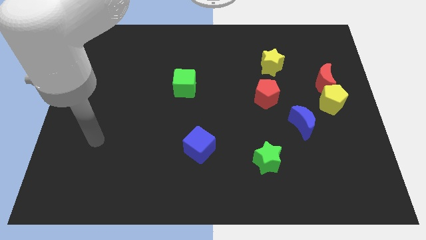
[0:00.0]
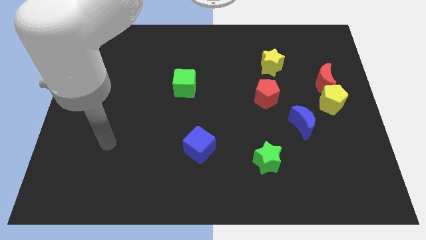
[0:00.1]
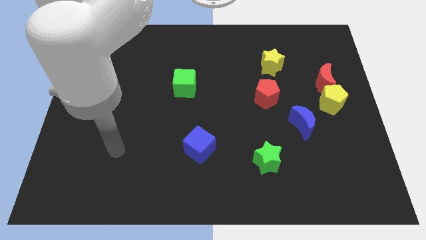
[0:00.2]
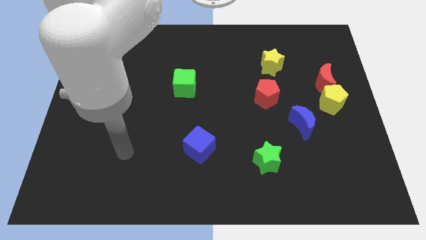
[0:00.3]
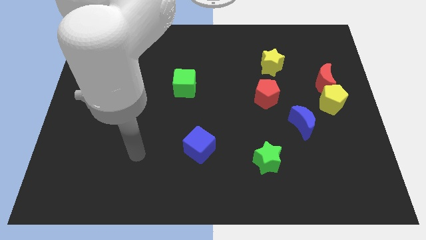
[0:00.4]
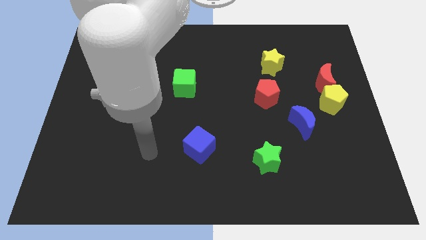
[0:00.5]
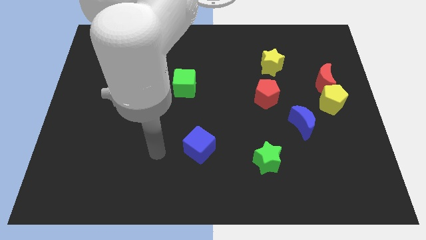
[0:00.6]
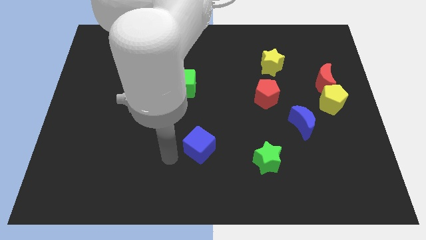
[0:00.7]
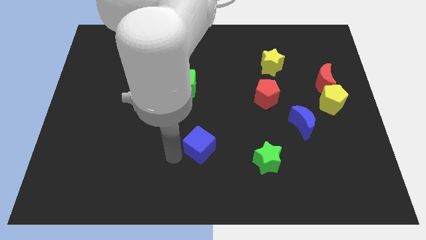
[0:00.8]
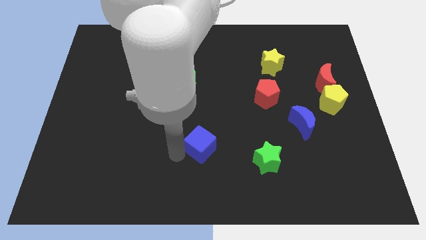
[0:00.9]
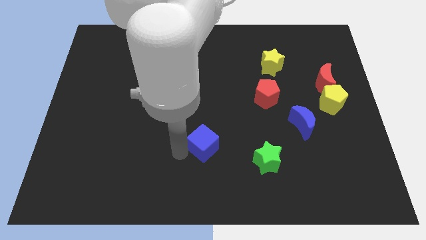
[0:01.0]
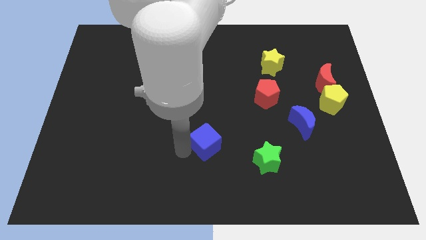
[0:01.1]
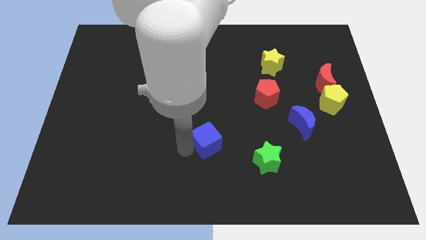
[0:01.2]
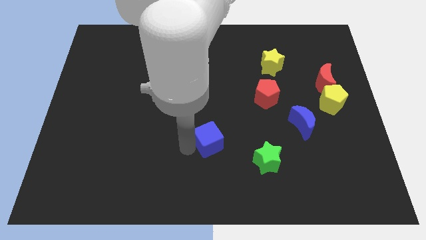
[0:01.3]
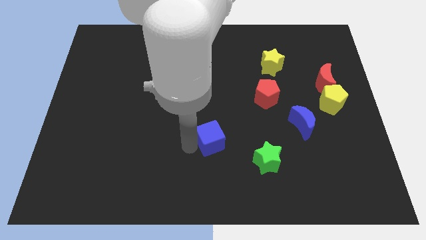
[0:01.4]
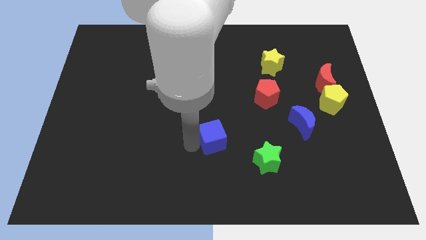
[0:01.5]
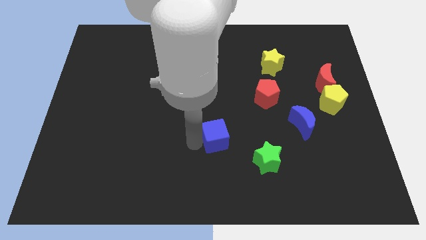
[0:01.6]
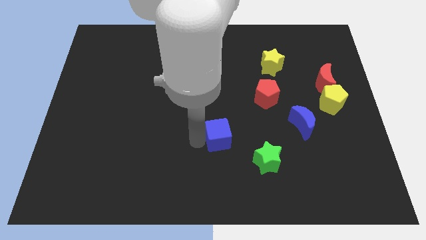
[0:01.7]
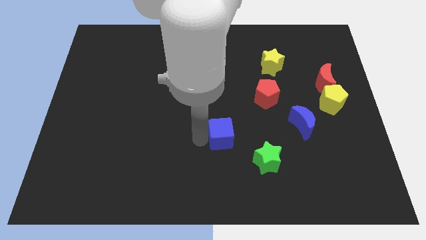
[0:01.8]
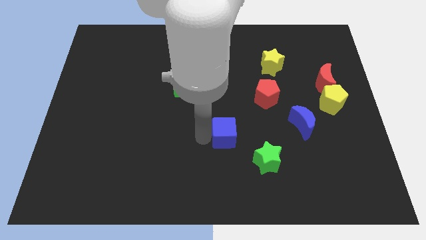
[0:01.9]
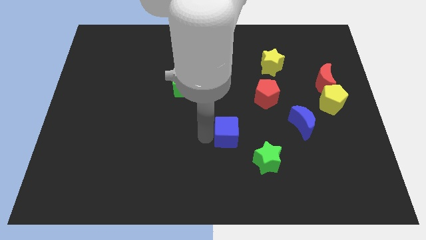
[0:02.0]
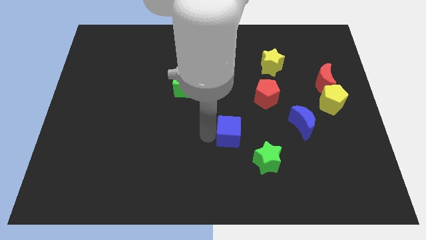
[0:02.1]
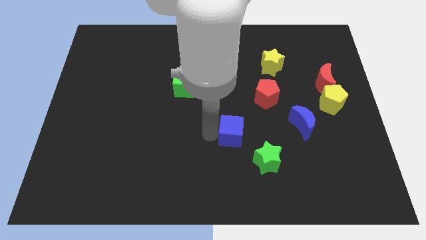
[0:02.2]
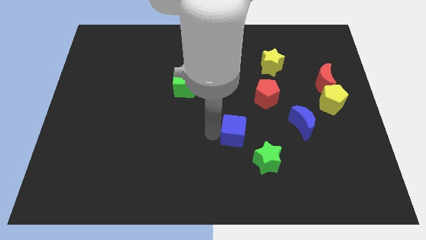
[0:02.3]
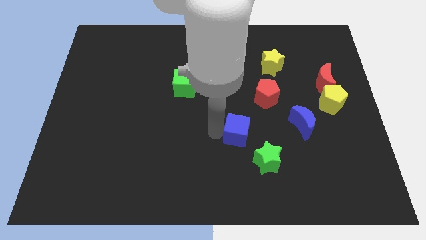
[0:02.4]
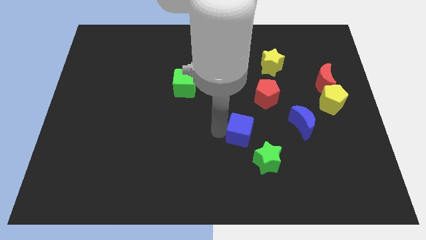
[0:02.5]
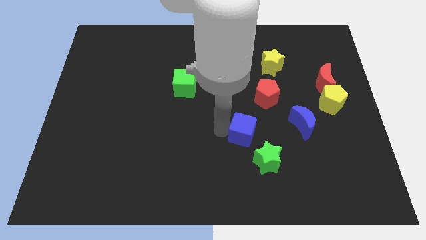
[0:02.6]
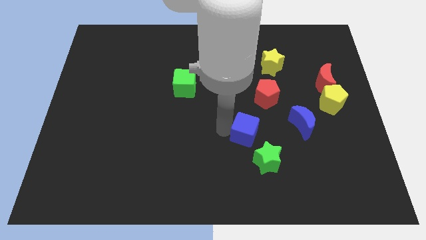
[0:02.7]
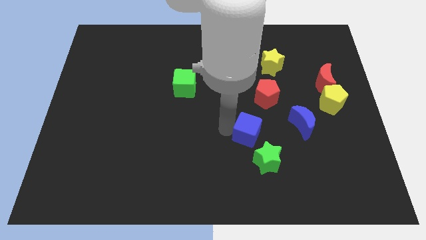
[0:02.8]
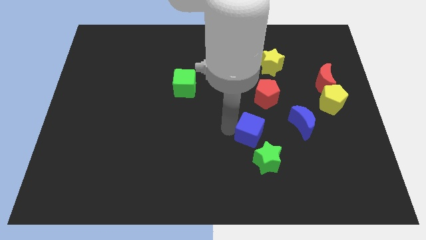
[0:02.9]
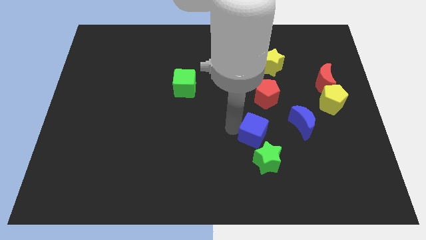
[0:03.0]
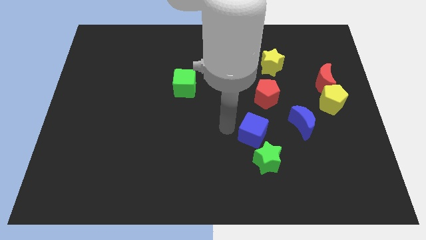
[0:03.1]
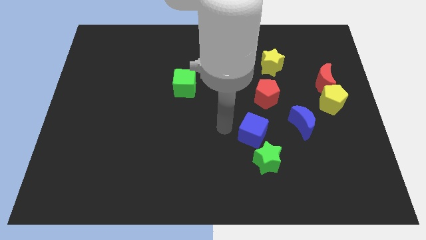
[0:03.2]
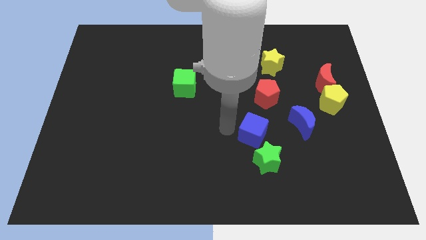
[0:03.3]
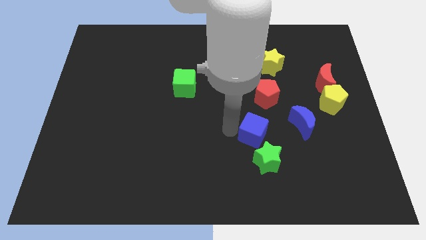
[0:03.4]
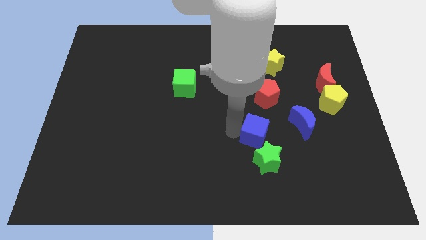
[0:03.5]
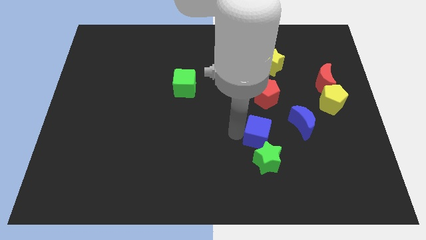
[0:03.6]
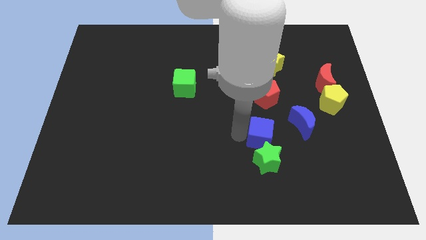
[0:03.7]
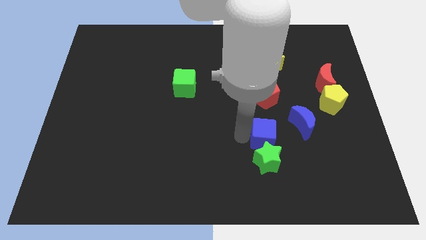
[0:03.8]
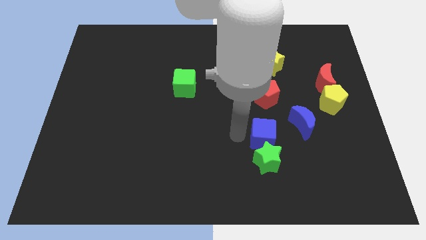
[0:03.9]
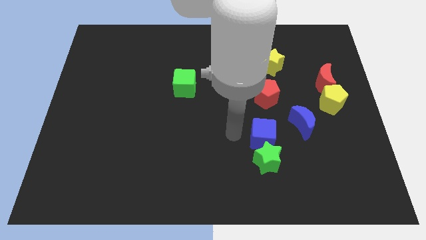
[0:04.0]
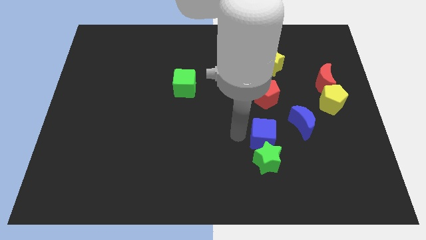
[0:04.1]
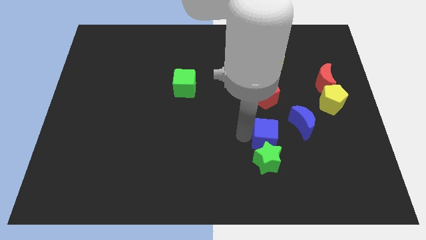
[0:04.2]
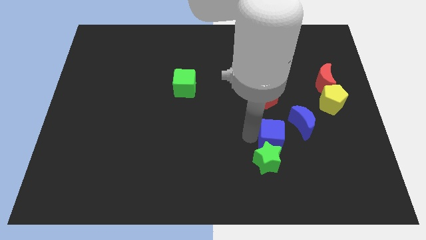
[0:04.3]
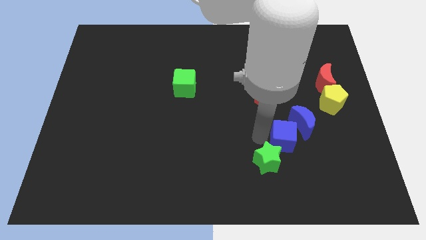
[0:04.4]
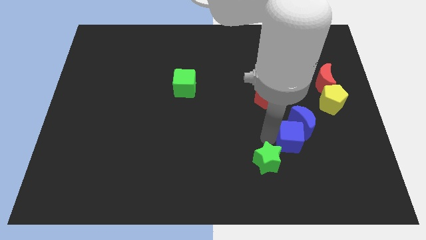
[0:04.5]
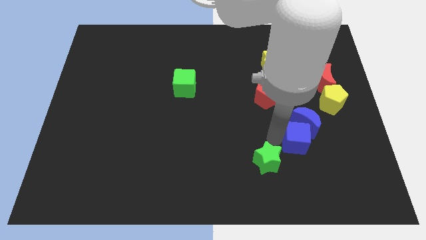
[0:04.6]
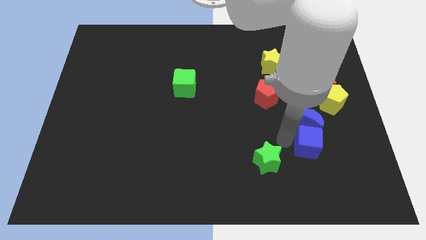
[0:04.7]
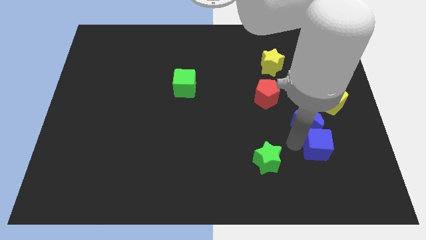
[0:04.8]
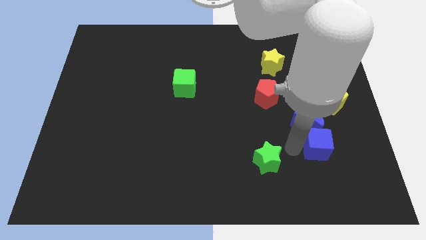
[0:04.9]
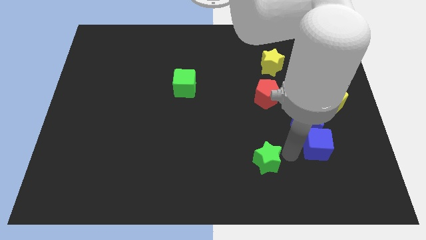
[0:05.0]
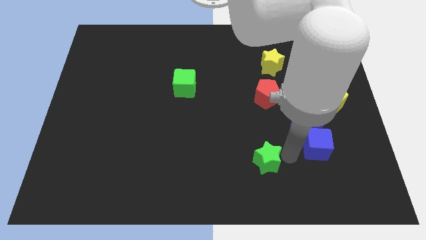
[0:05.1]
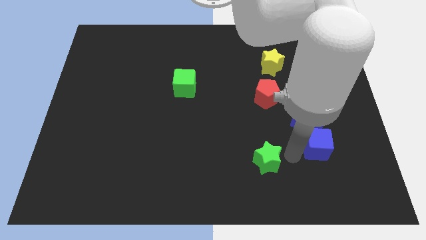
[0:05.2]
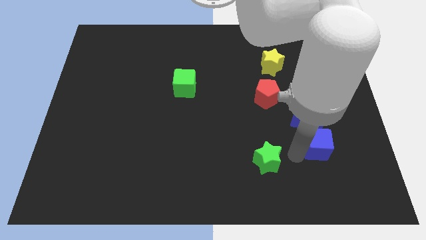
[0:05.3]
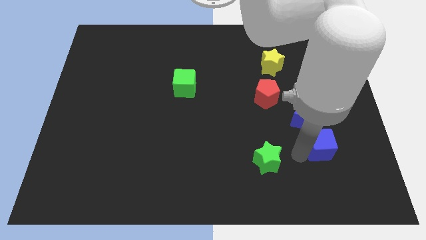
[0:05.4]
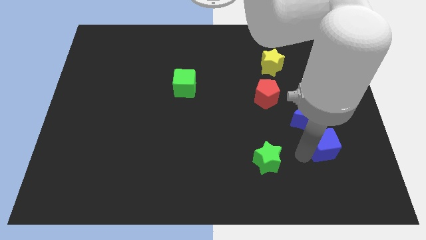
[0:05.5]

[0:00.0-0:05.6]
put the blue cube to the bottom of the yellow pentagon

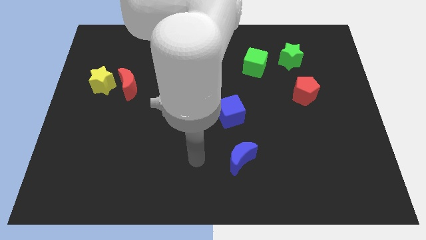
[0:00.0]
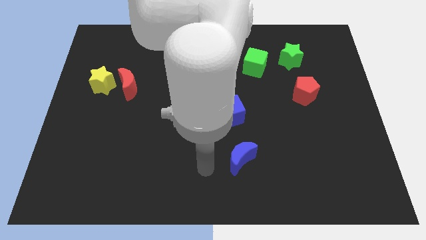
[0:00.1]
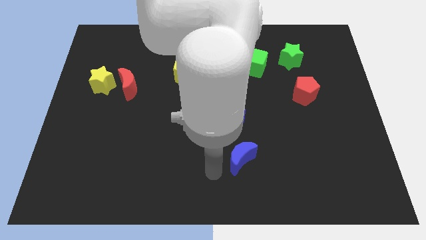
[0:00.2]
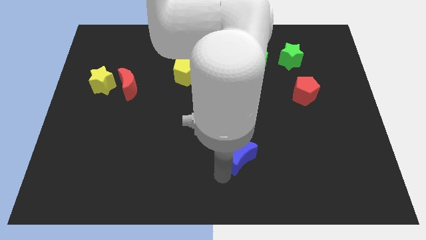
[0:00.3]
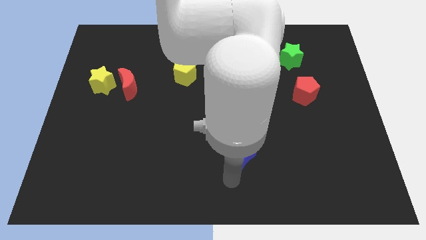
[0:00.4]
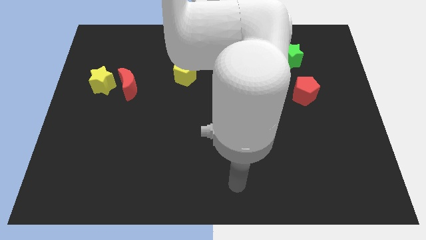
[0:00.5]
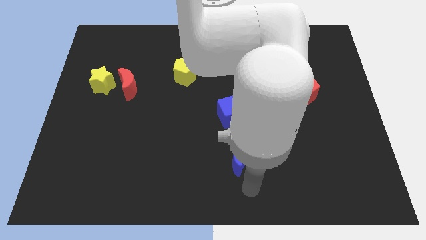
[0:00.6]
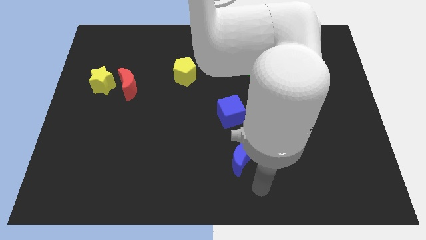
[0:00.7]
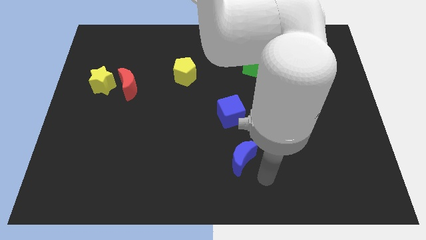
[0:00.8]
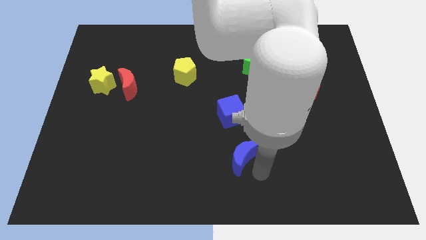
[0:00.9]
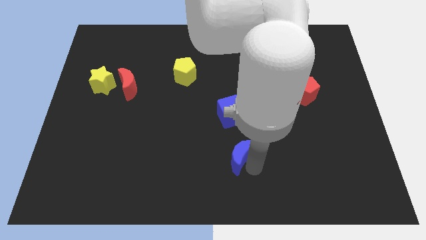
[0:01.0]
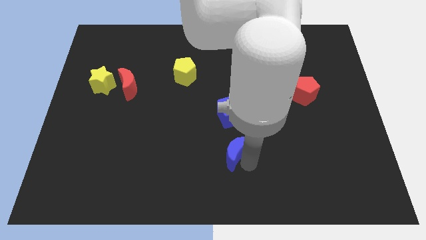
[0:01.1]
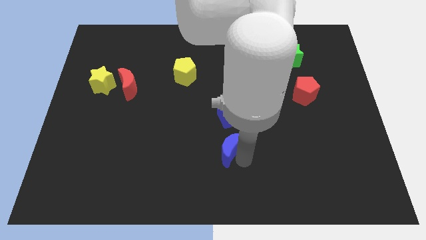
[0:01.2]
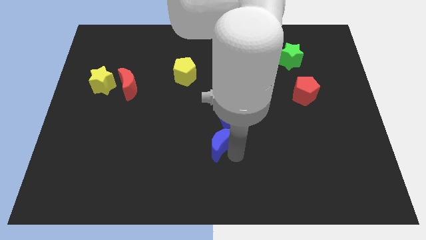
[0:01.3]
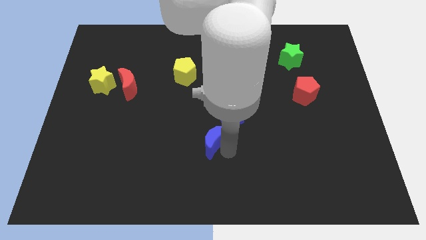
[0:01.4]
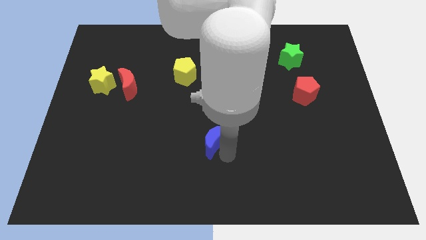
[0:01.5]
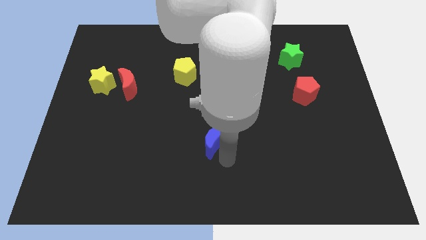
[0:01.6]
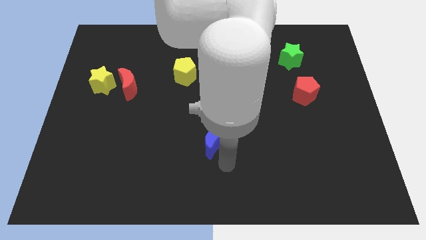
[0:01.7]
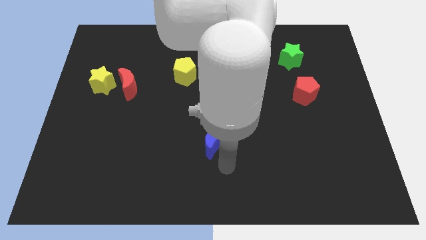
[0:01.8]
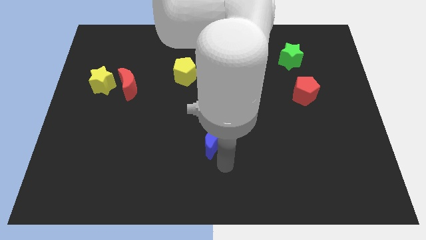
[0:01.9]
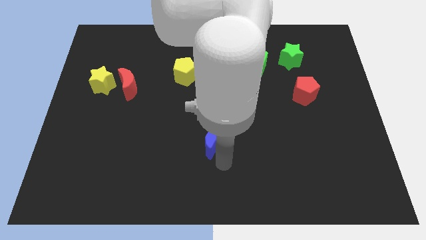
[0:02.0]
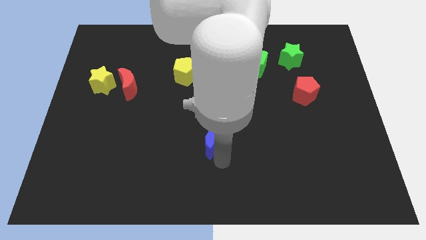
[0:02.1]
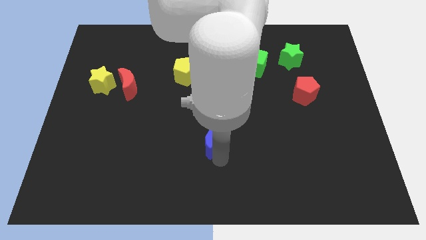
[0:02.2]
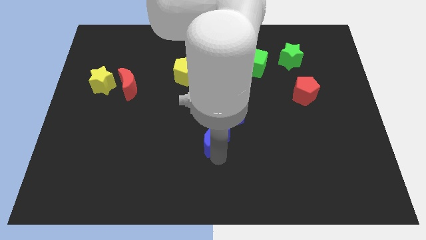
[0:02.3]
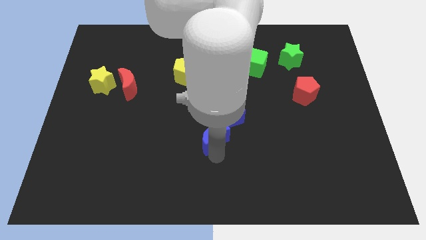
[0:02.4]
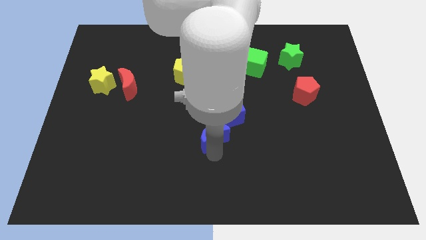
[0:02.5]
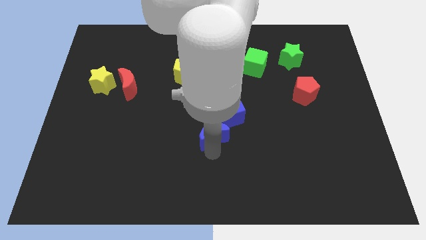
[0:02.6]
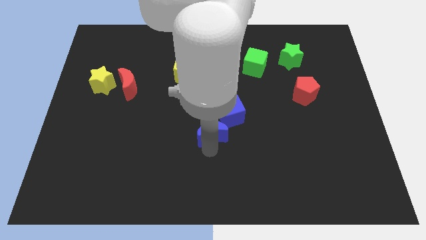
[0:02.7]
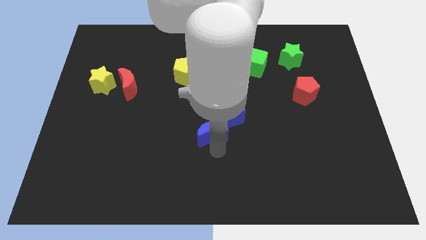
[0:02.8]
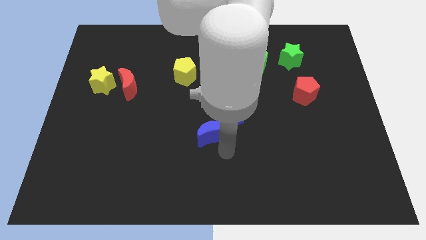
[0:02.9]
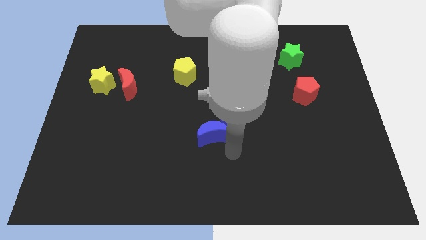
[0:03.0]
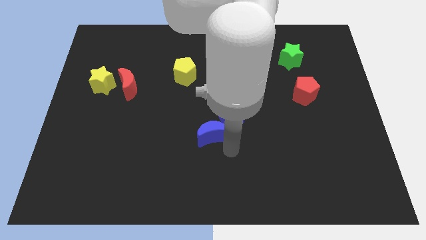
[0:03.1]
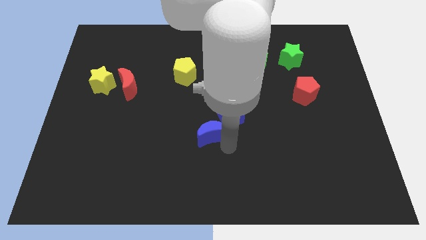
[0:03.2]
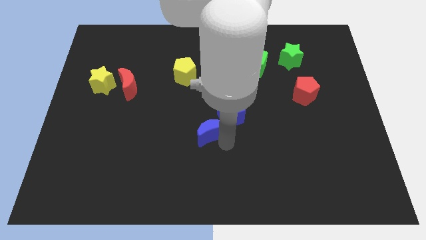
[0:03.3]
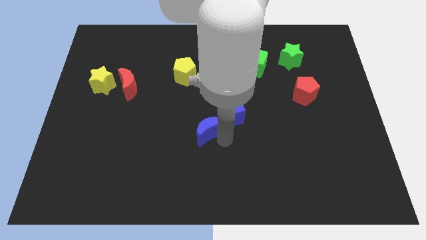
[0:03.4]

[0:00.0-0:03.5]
move the blue moon to the left side of the blue cube
